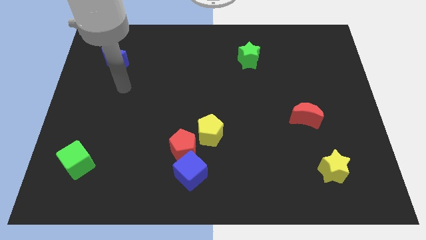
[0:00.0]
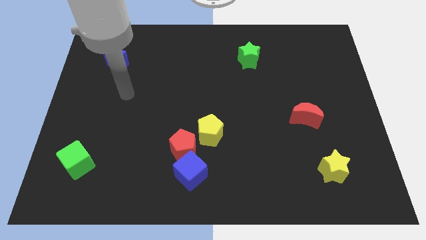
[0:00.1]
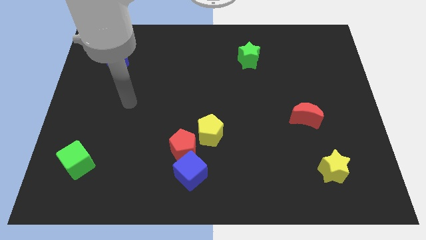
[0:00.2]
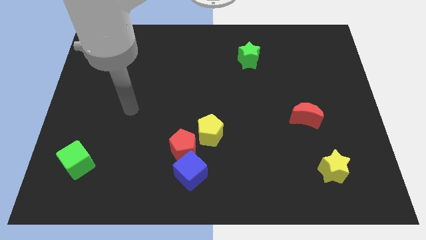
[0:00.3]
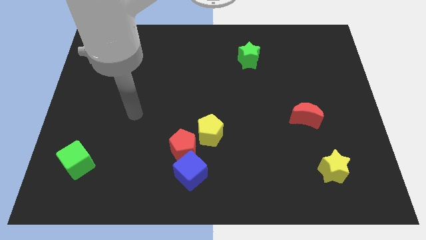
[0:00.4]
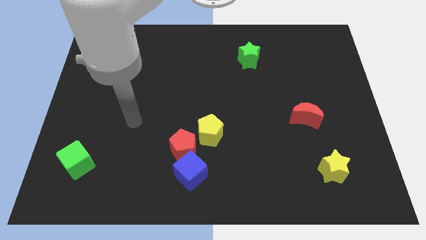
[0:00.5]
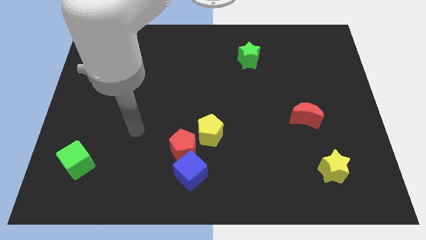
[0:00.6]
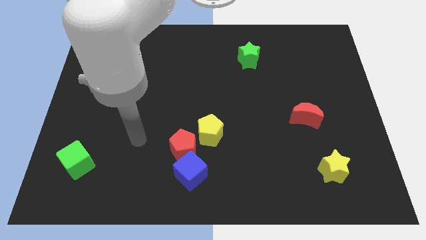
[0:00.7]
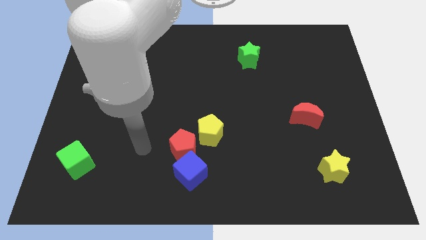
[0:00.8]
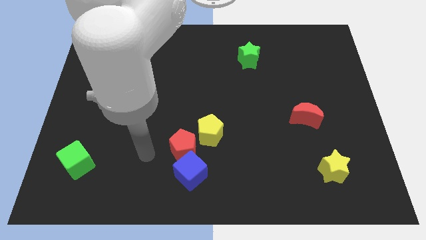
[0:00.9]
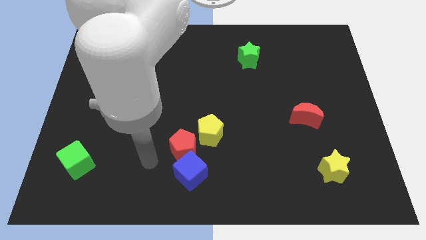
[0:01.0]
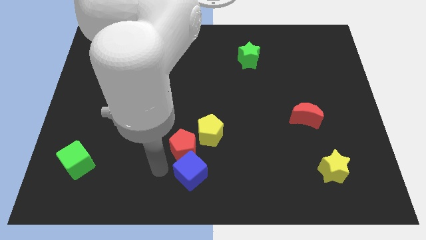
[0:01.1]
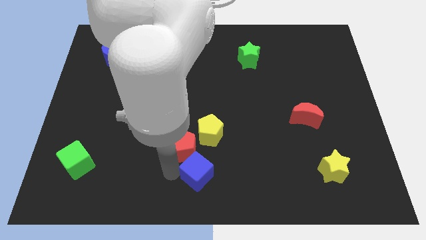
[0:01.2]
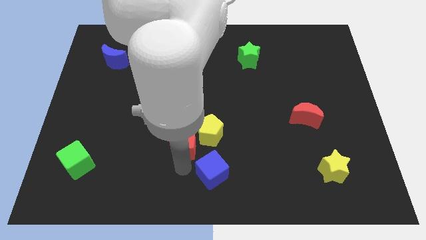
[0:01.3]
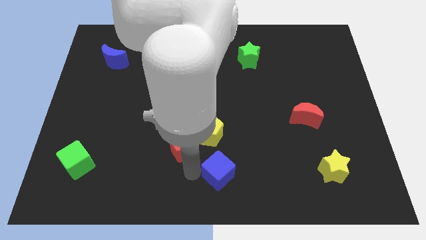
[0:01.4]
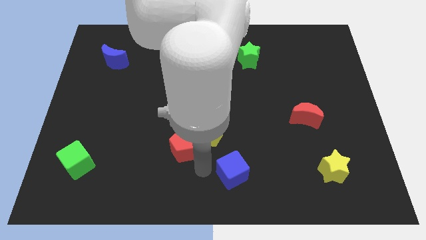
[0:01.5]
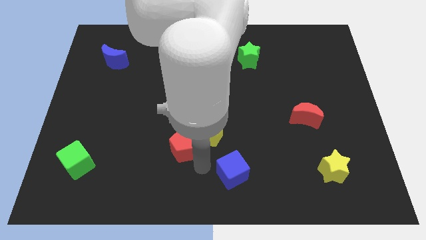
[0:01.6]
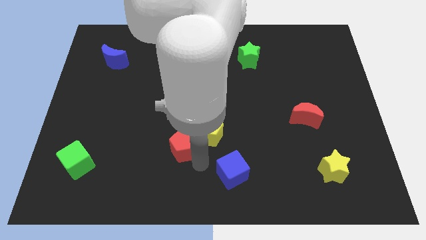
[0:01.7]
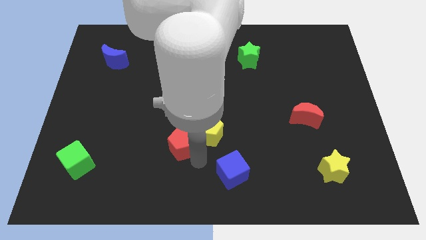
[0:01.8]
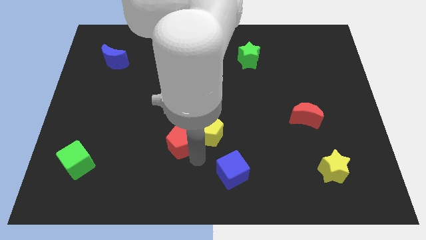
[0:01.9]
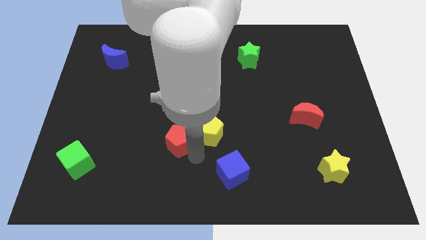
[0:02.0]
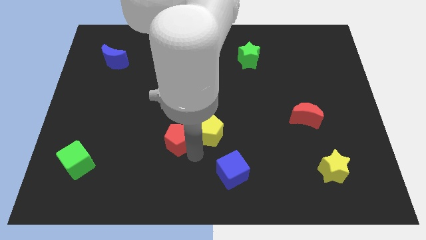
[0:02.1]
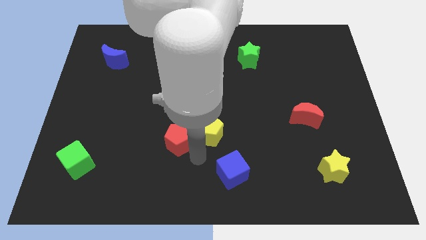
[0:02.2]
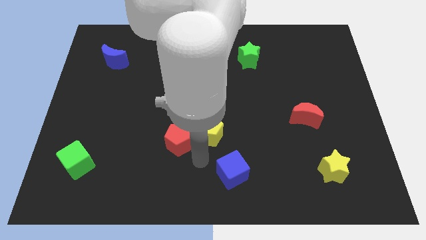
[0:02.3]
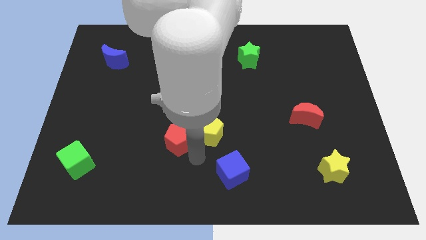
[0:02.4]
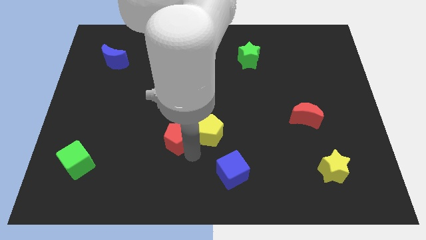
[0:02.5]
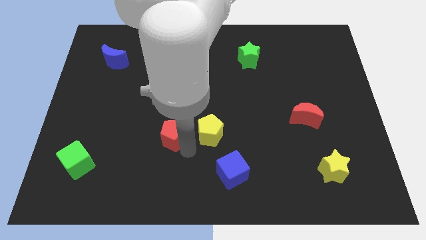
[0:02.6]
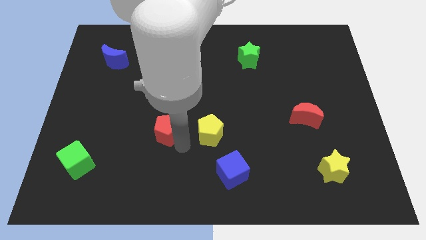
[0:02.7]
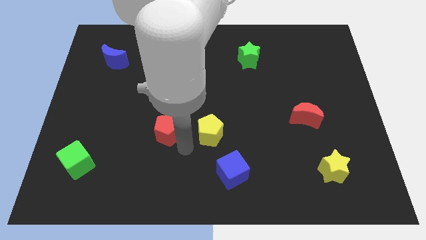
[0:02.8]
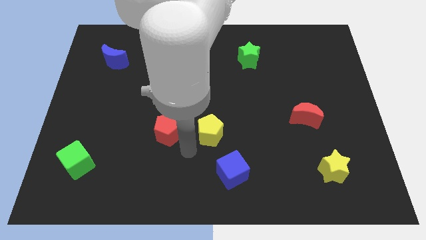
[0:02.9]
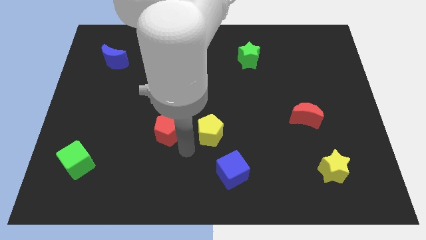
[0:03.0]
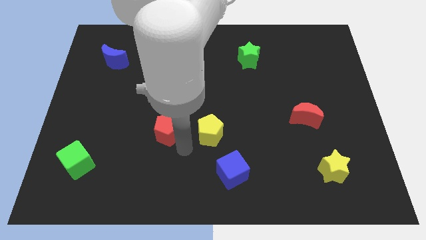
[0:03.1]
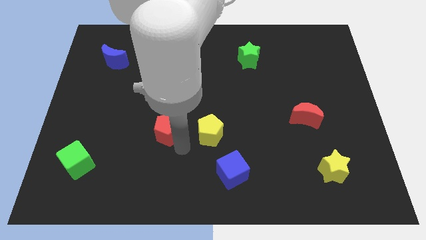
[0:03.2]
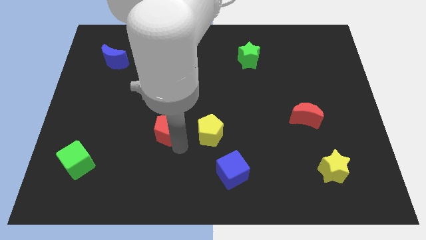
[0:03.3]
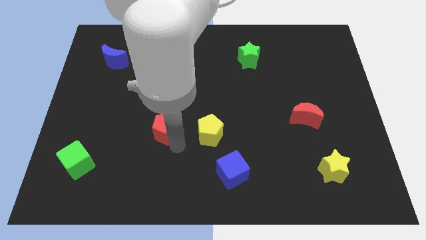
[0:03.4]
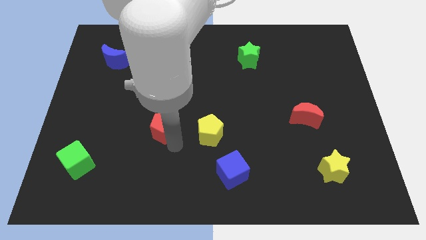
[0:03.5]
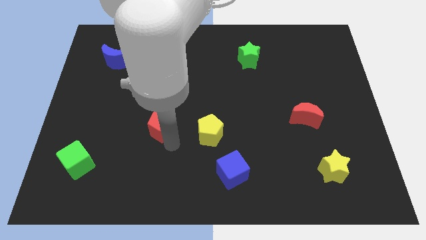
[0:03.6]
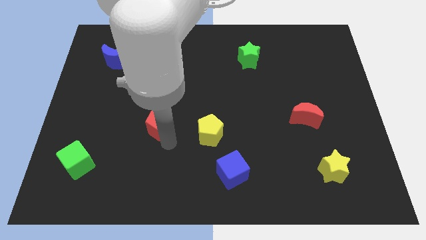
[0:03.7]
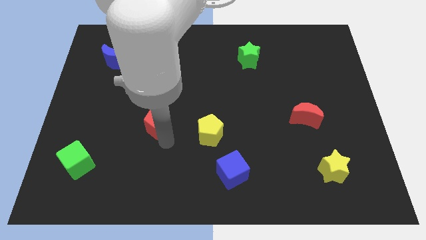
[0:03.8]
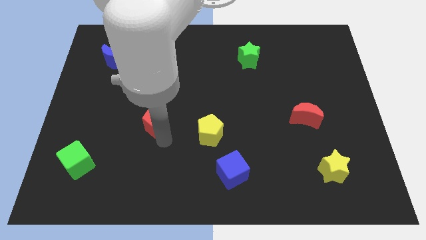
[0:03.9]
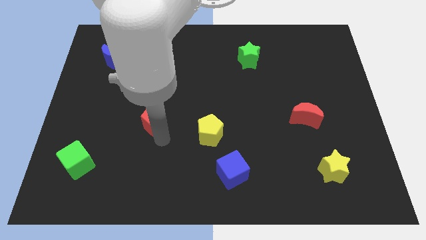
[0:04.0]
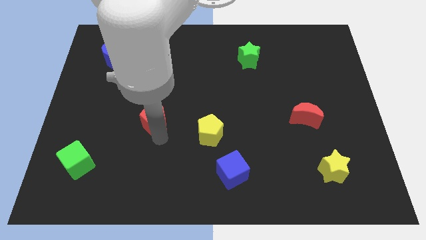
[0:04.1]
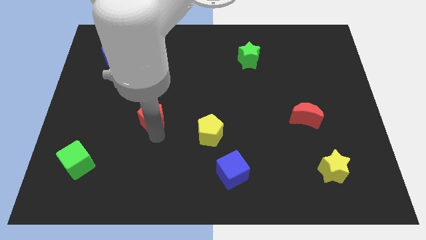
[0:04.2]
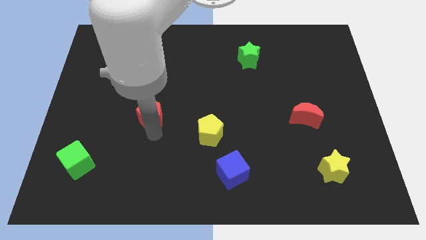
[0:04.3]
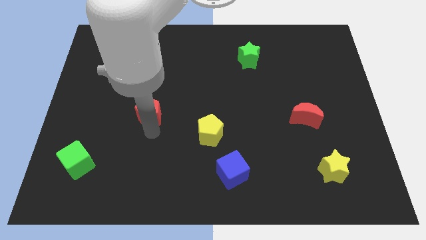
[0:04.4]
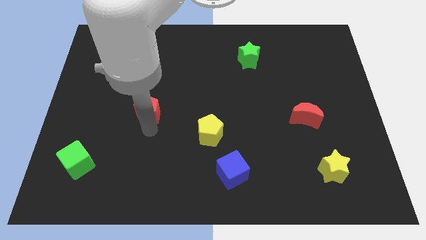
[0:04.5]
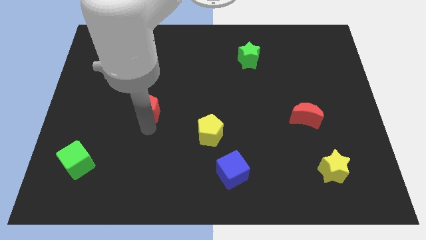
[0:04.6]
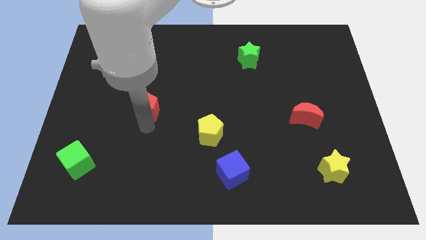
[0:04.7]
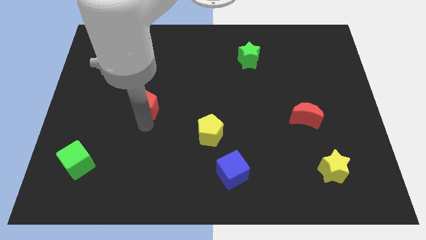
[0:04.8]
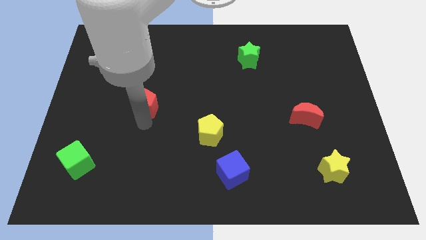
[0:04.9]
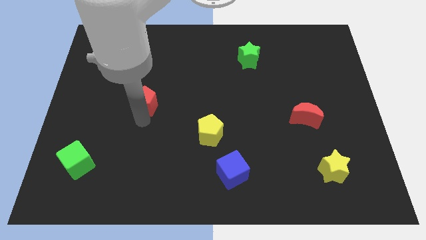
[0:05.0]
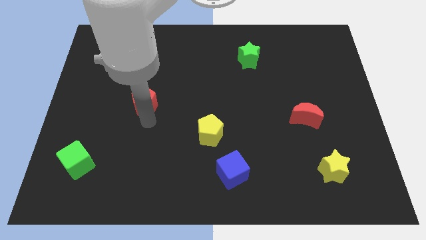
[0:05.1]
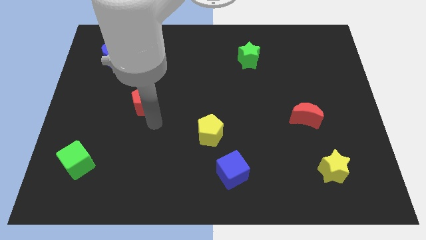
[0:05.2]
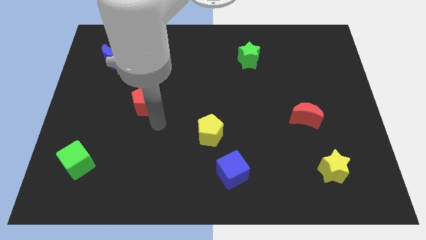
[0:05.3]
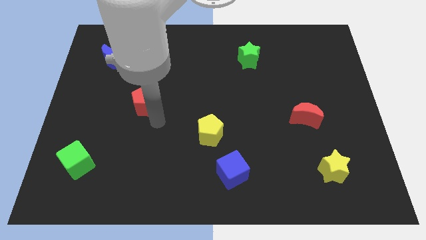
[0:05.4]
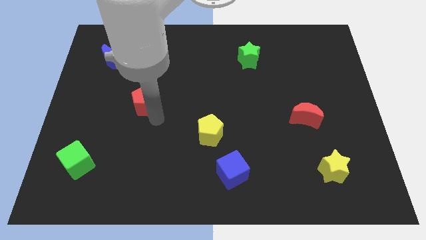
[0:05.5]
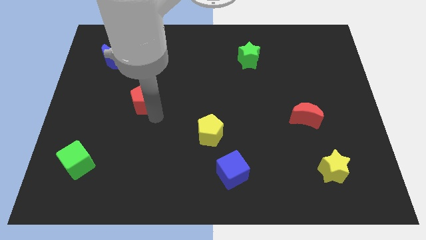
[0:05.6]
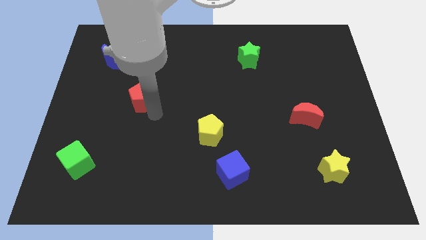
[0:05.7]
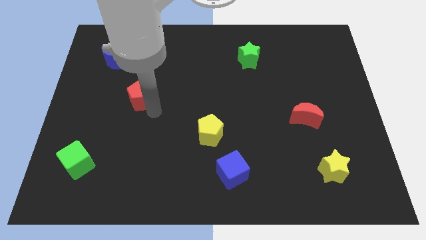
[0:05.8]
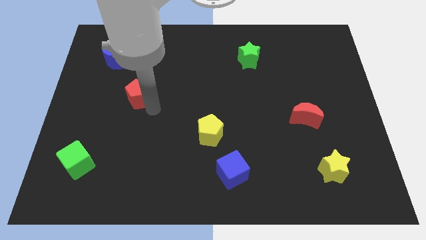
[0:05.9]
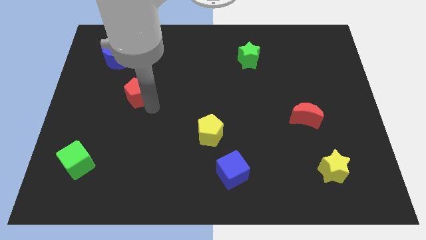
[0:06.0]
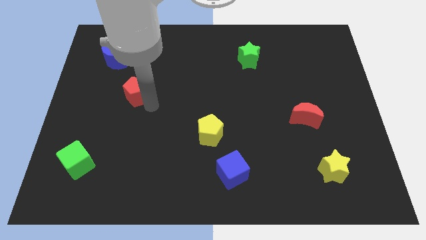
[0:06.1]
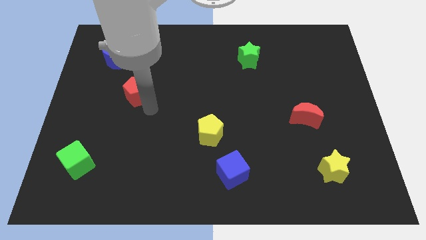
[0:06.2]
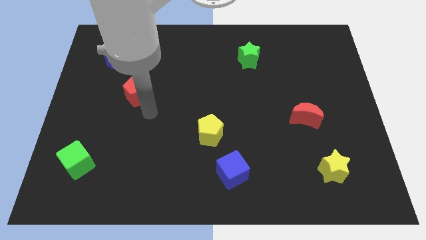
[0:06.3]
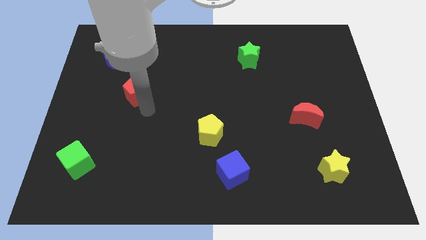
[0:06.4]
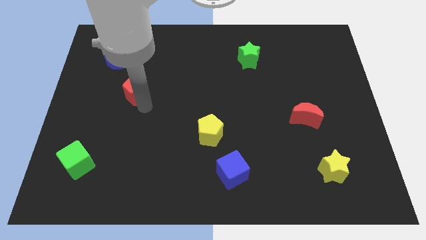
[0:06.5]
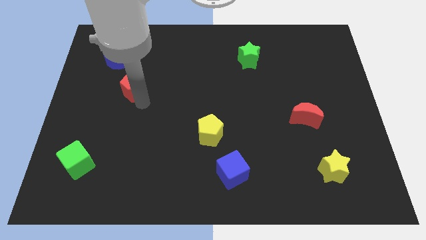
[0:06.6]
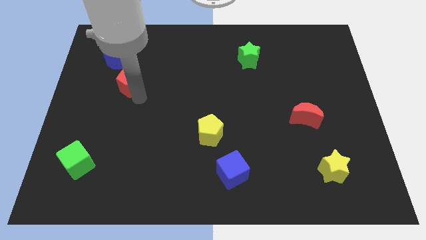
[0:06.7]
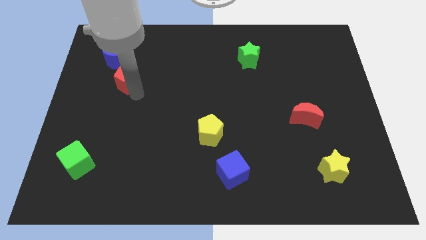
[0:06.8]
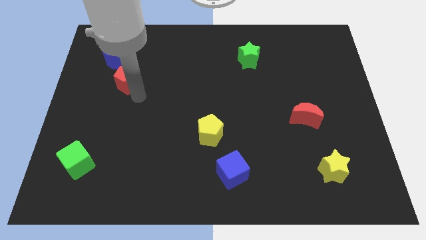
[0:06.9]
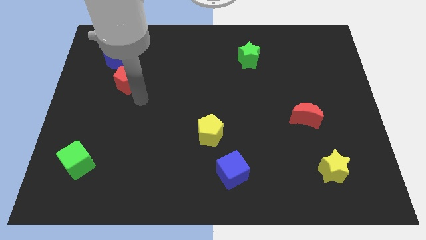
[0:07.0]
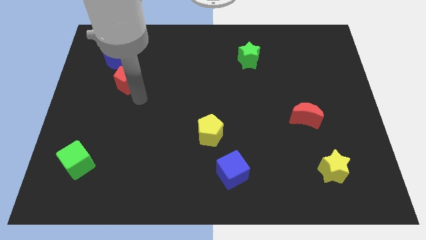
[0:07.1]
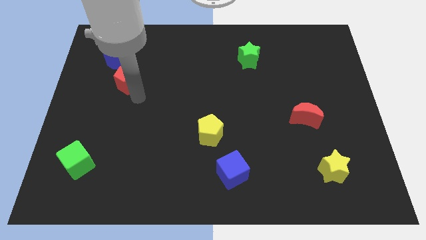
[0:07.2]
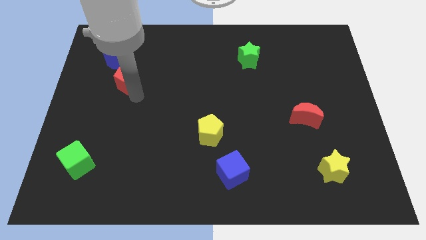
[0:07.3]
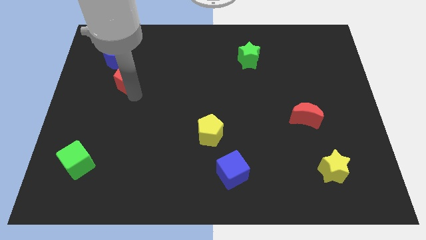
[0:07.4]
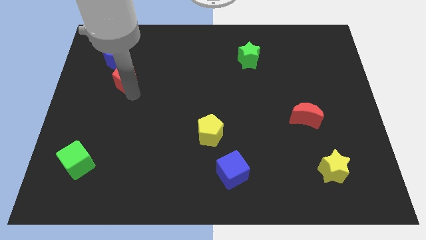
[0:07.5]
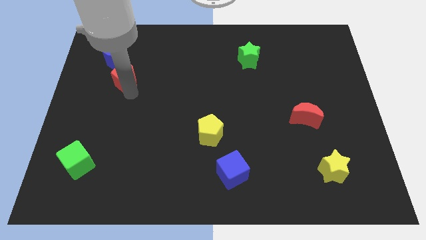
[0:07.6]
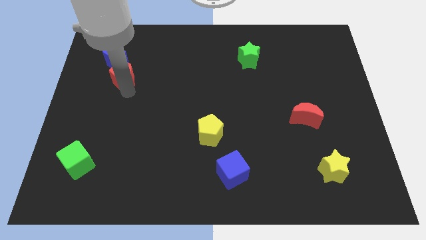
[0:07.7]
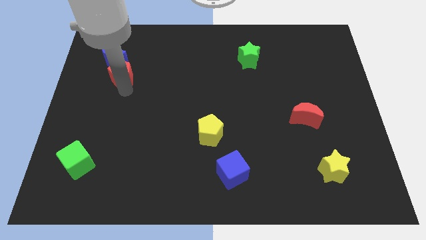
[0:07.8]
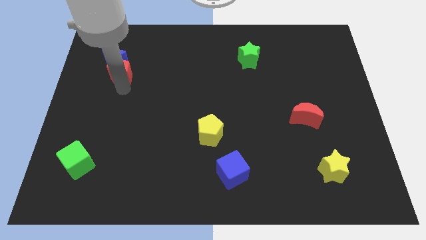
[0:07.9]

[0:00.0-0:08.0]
put the red pentagon towards the blue moon
